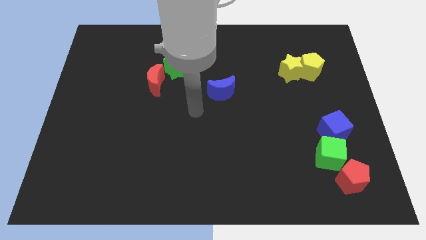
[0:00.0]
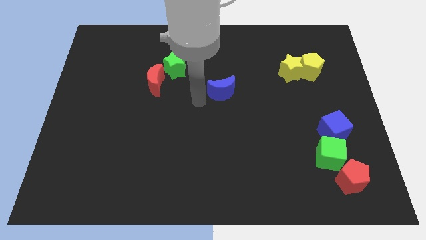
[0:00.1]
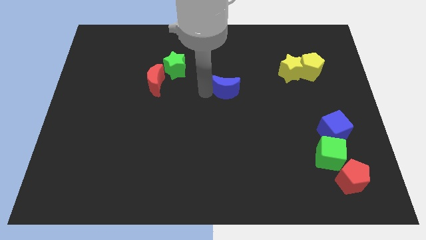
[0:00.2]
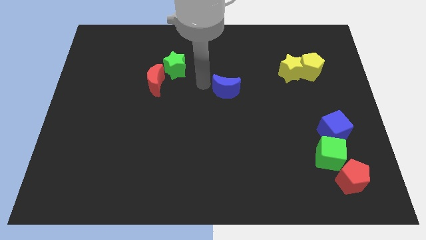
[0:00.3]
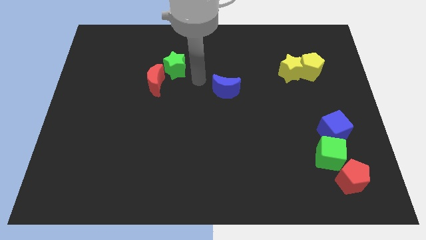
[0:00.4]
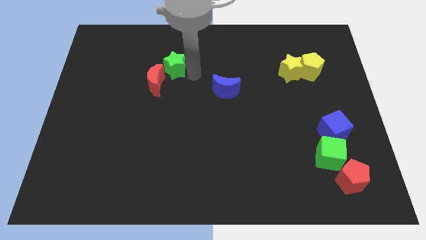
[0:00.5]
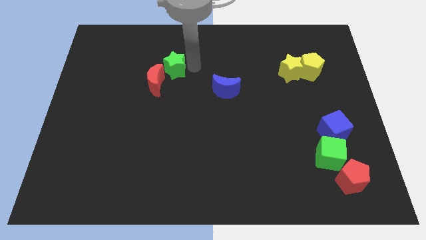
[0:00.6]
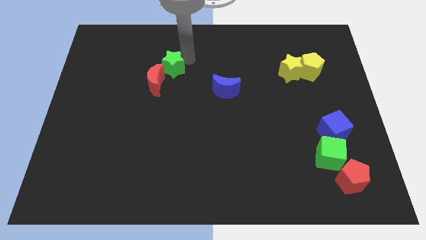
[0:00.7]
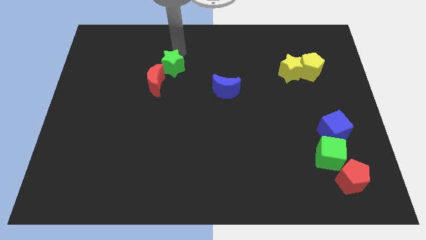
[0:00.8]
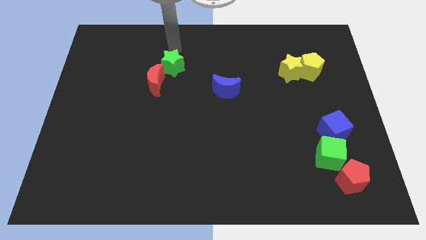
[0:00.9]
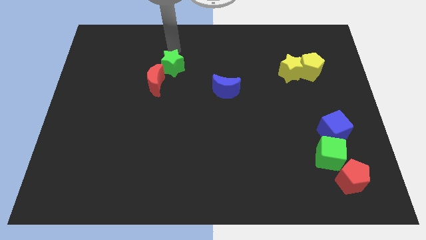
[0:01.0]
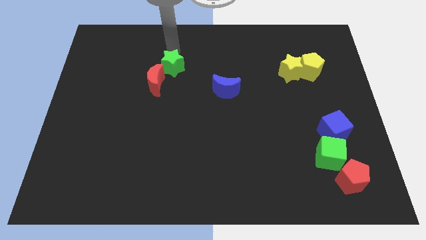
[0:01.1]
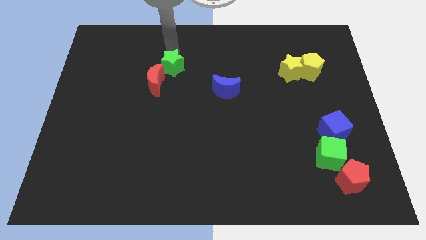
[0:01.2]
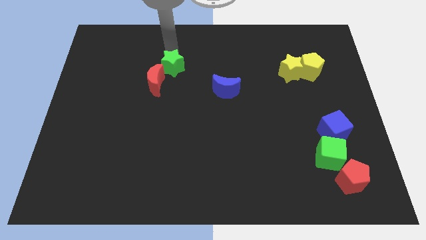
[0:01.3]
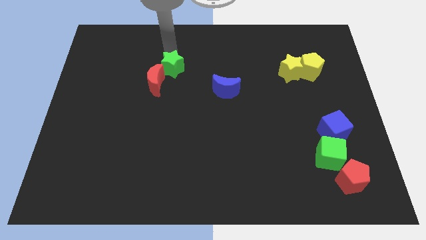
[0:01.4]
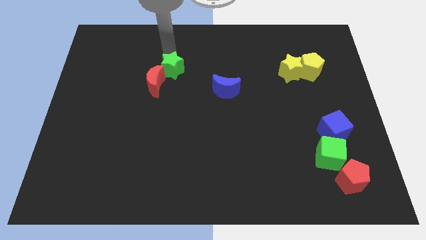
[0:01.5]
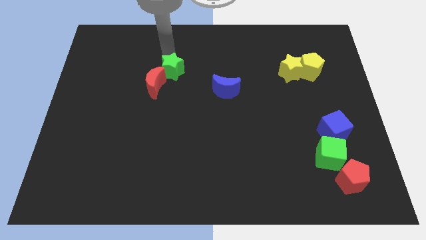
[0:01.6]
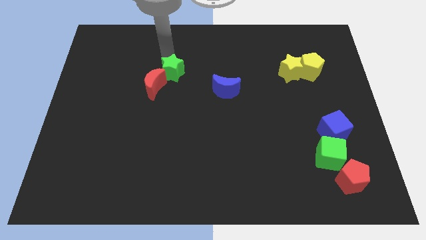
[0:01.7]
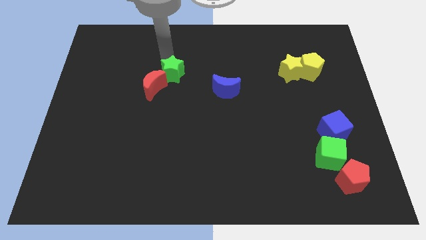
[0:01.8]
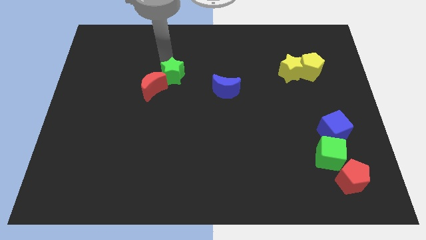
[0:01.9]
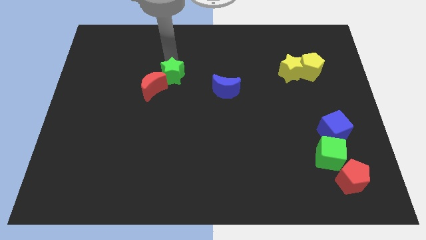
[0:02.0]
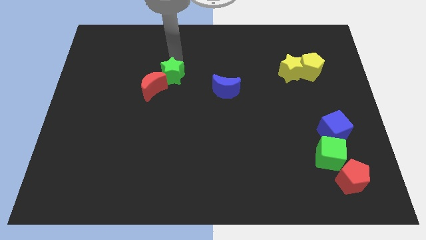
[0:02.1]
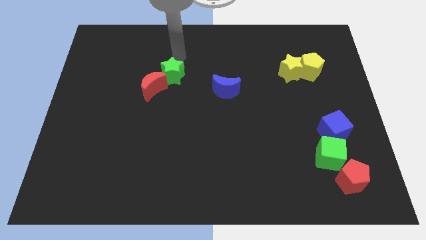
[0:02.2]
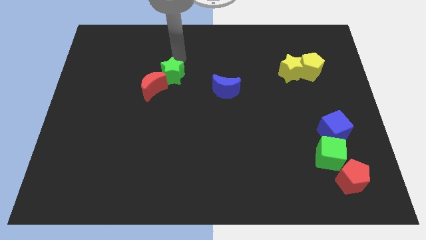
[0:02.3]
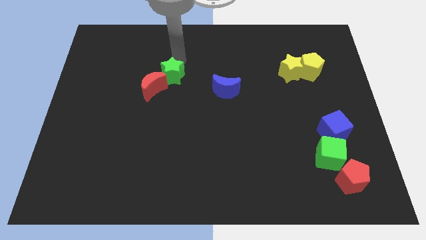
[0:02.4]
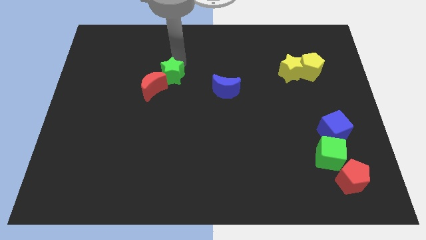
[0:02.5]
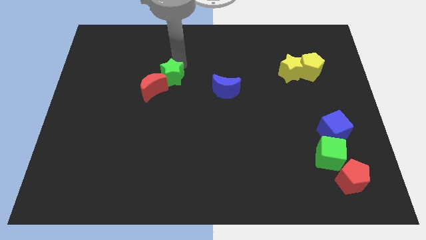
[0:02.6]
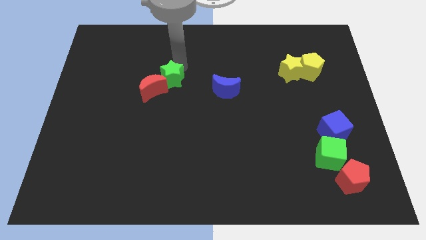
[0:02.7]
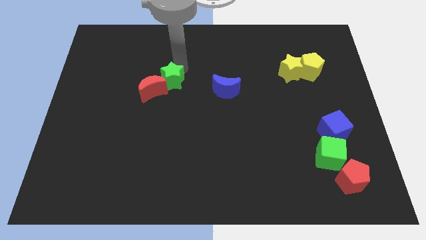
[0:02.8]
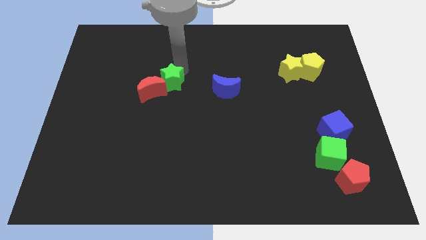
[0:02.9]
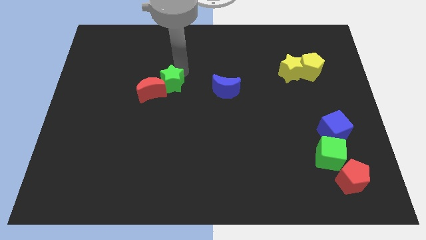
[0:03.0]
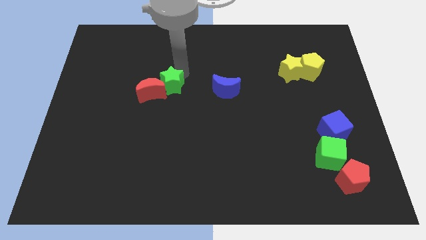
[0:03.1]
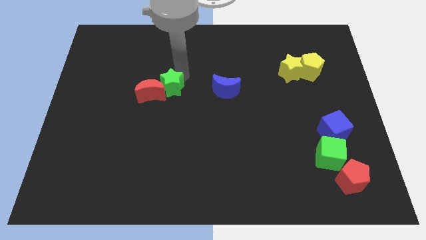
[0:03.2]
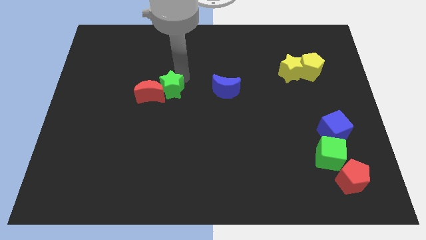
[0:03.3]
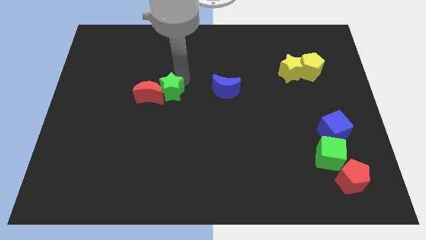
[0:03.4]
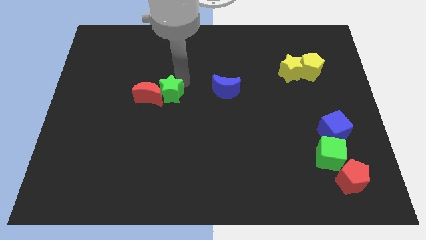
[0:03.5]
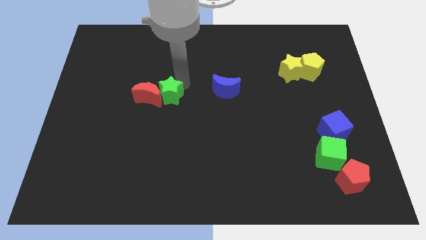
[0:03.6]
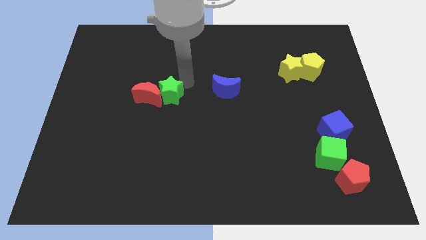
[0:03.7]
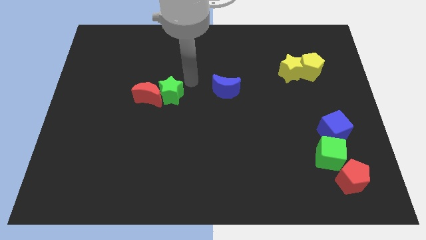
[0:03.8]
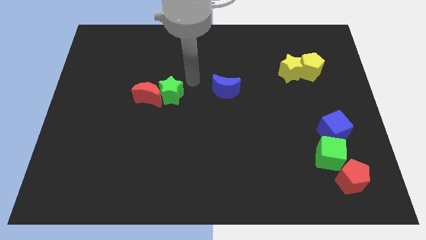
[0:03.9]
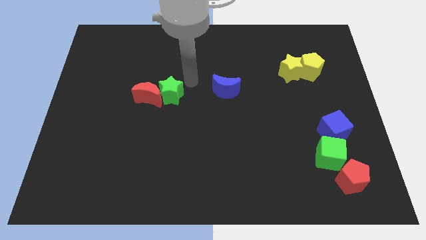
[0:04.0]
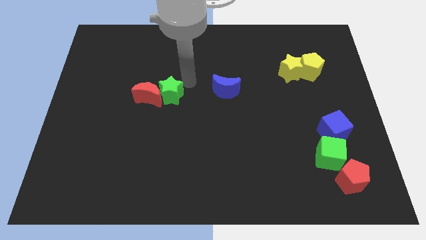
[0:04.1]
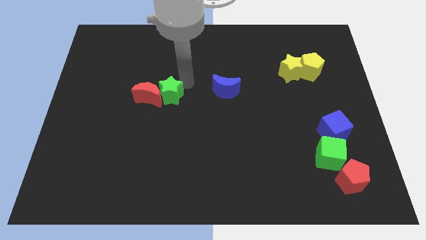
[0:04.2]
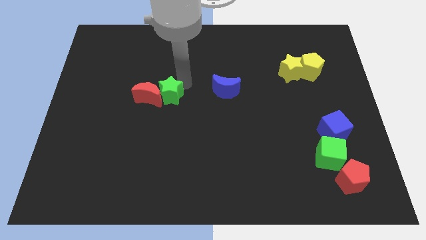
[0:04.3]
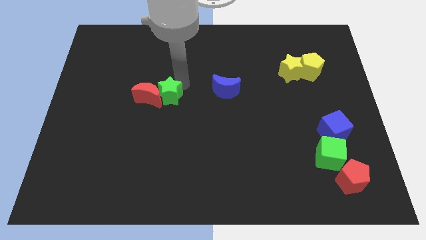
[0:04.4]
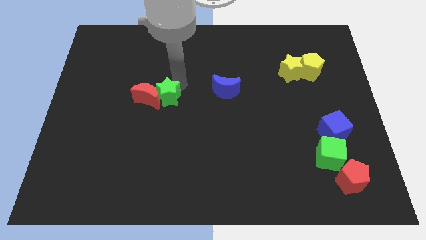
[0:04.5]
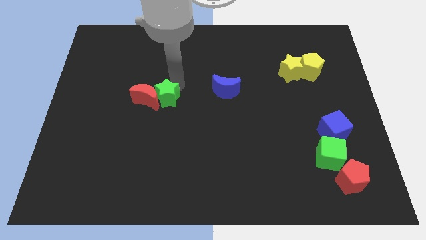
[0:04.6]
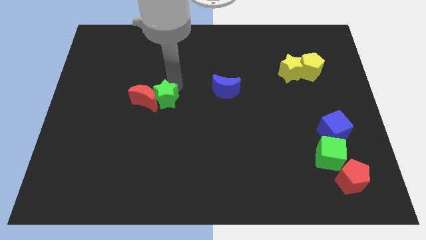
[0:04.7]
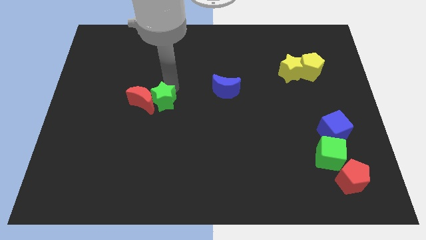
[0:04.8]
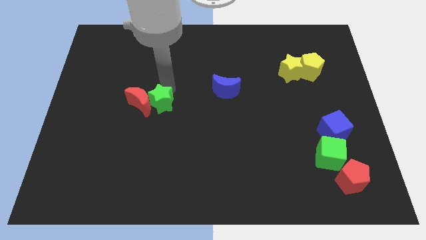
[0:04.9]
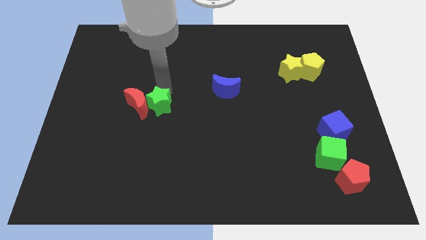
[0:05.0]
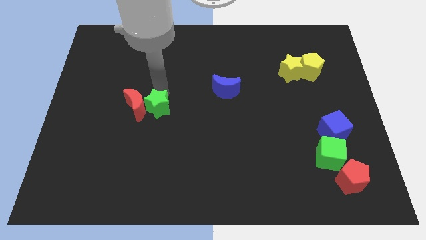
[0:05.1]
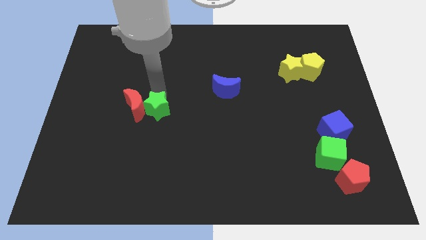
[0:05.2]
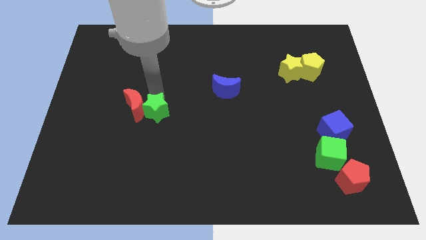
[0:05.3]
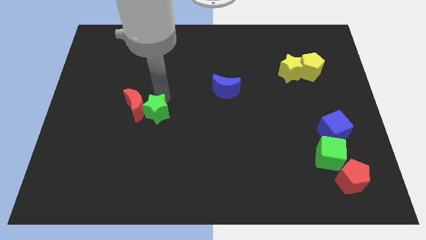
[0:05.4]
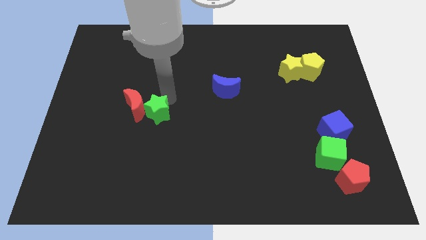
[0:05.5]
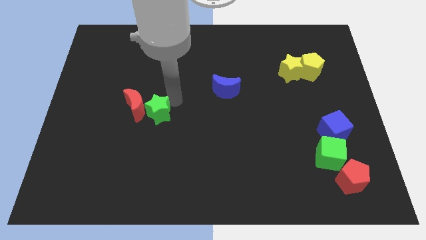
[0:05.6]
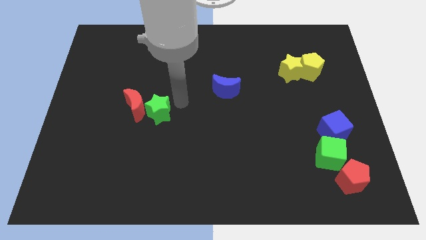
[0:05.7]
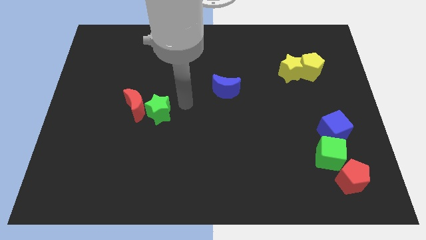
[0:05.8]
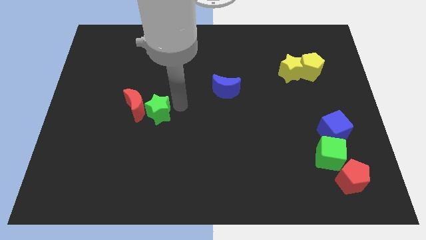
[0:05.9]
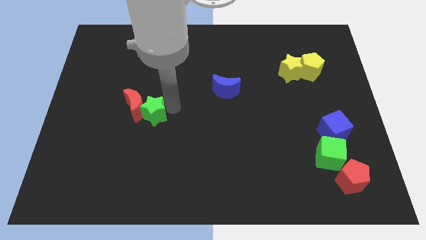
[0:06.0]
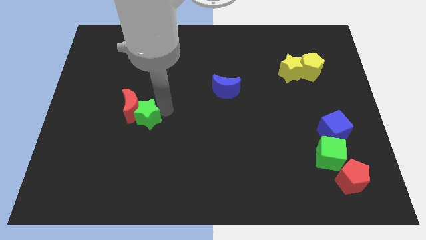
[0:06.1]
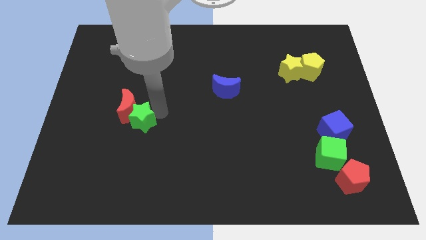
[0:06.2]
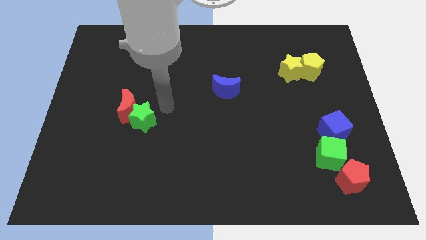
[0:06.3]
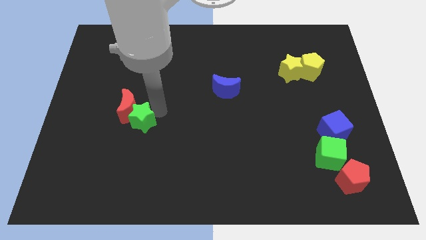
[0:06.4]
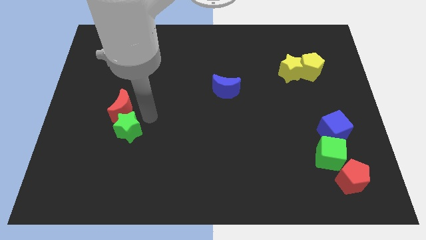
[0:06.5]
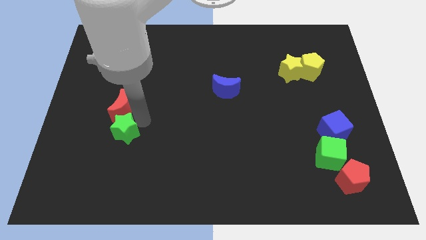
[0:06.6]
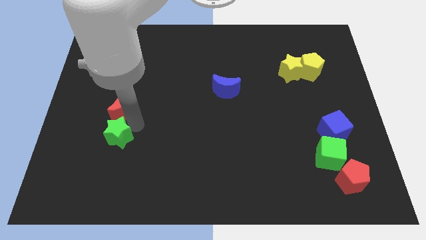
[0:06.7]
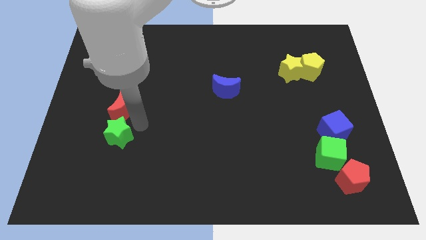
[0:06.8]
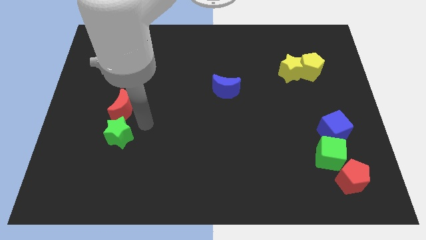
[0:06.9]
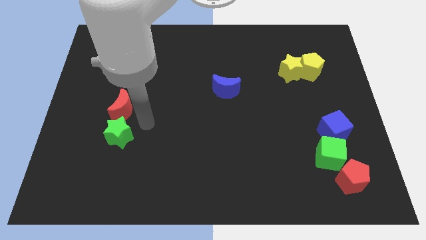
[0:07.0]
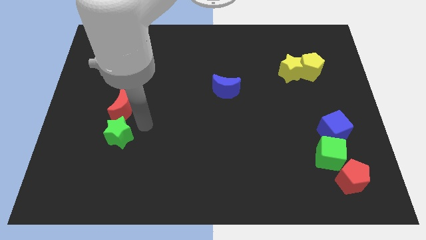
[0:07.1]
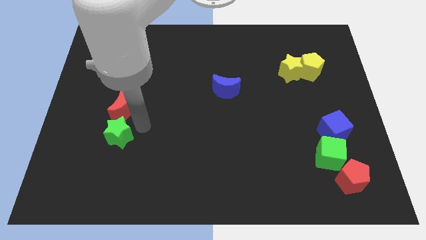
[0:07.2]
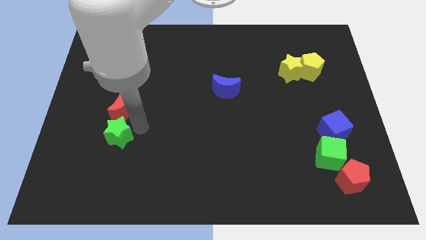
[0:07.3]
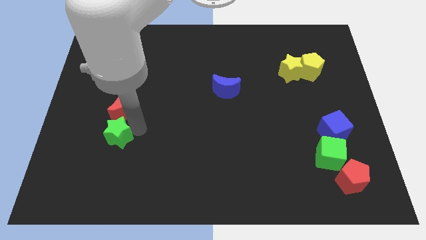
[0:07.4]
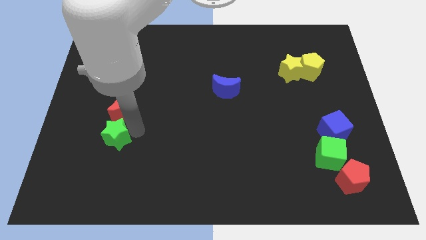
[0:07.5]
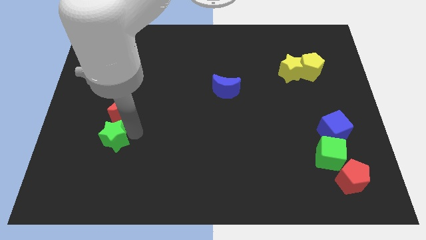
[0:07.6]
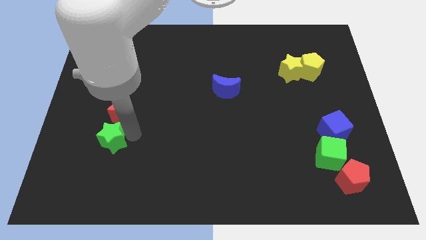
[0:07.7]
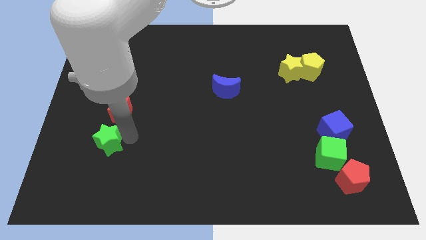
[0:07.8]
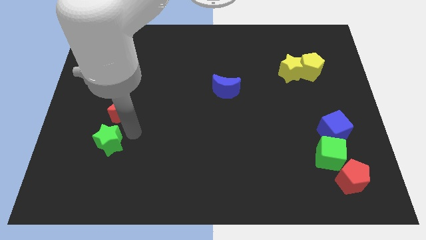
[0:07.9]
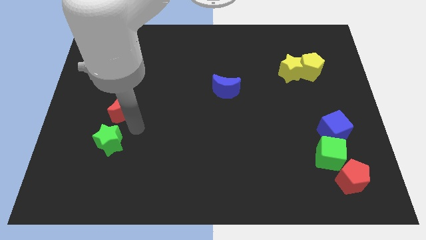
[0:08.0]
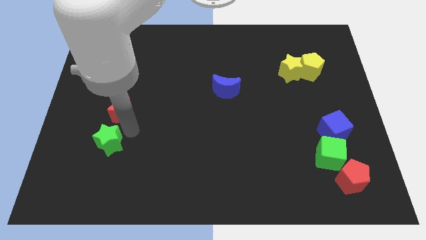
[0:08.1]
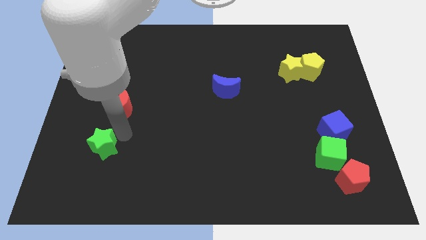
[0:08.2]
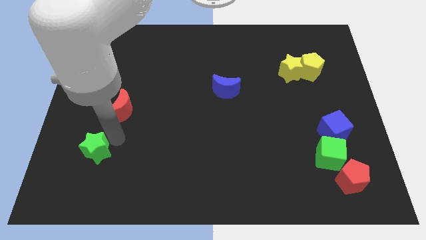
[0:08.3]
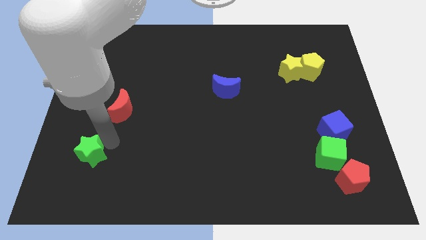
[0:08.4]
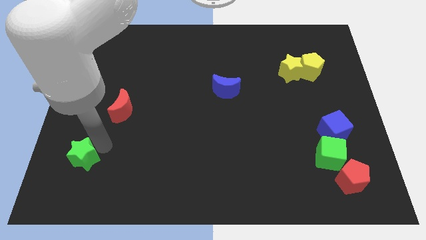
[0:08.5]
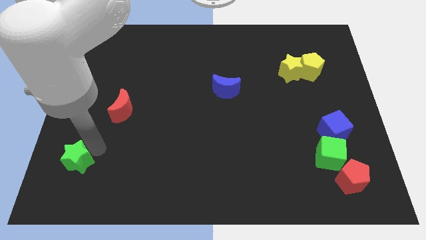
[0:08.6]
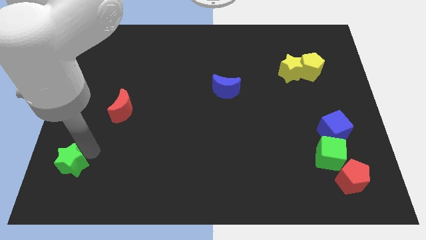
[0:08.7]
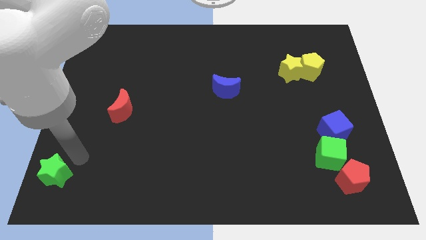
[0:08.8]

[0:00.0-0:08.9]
move the green star to the bottom left corner
